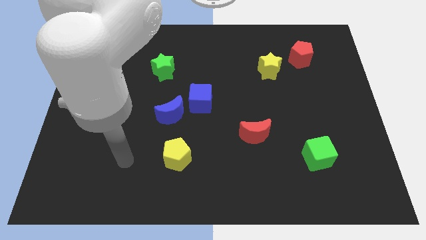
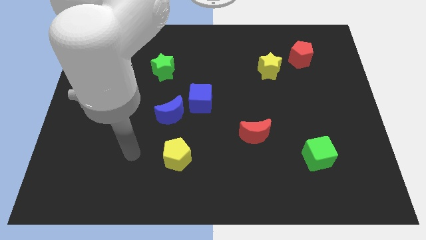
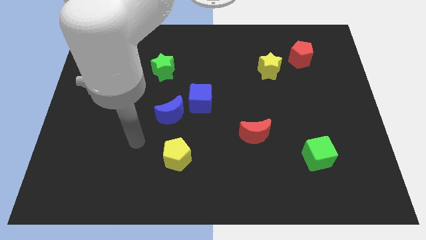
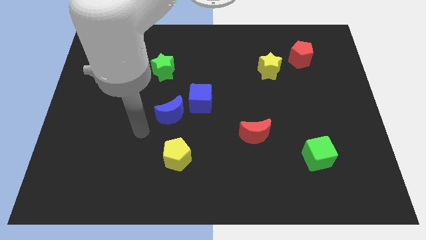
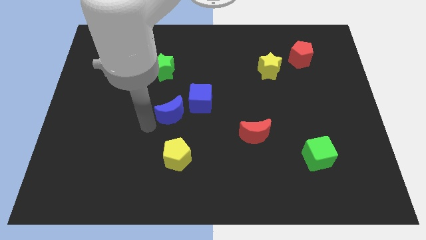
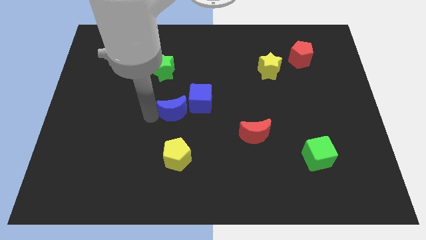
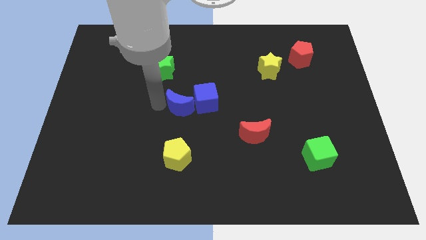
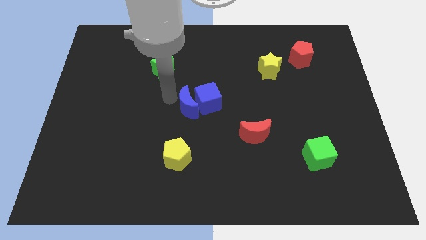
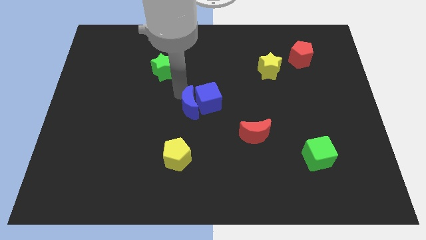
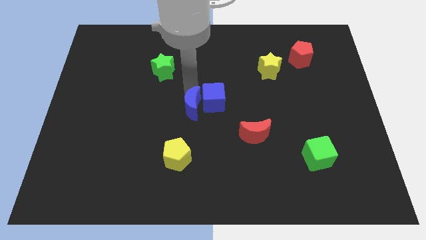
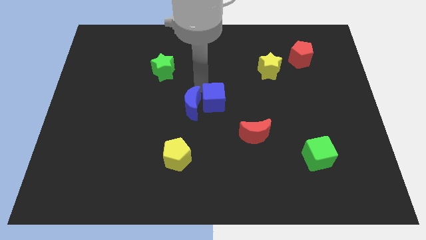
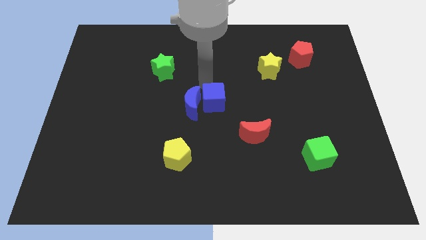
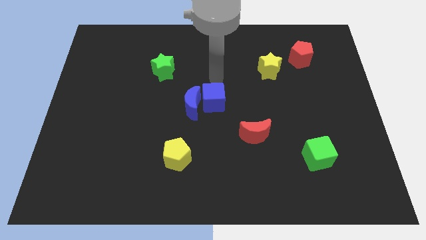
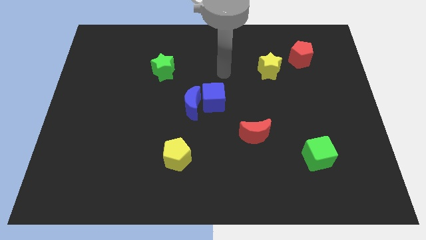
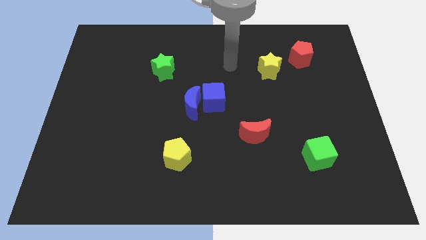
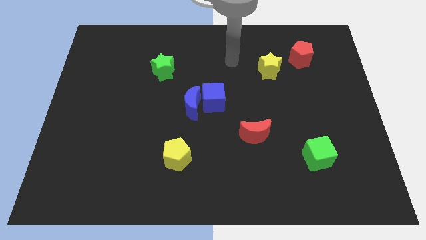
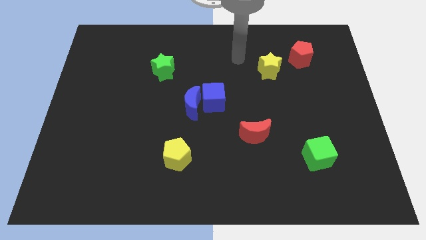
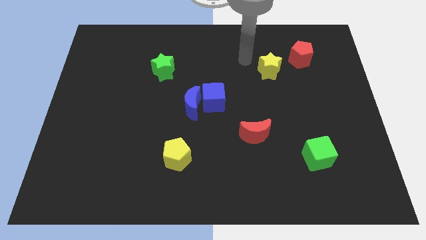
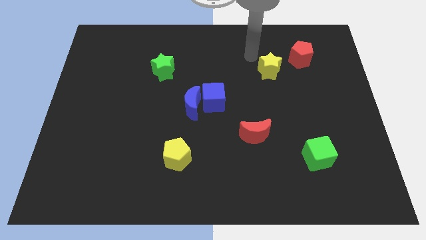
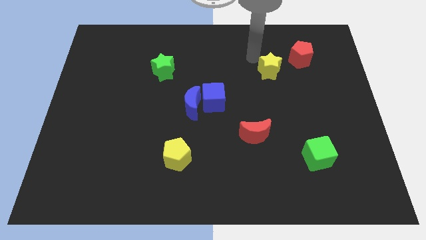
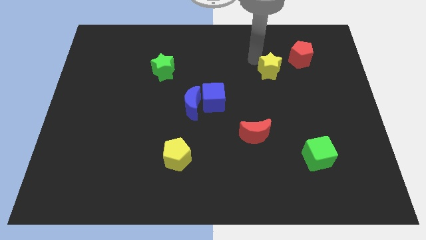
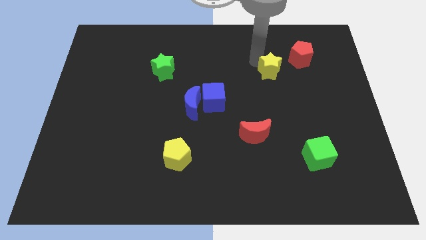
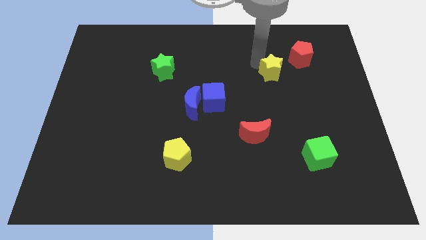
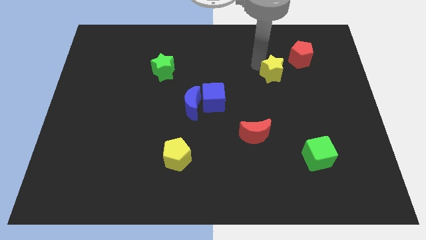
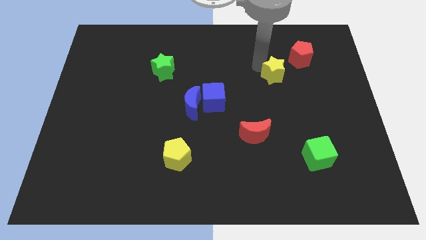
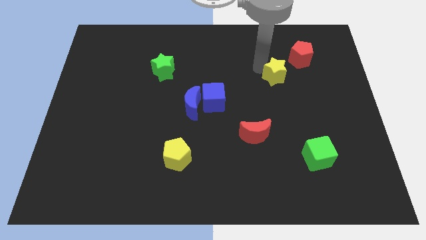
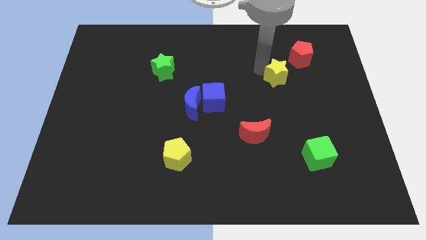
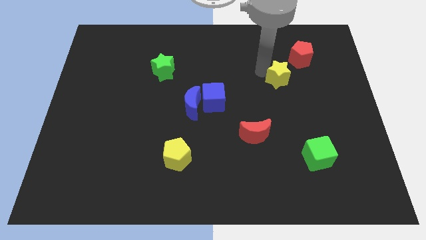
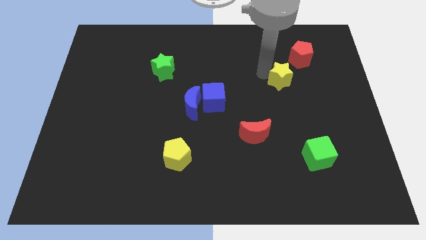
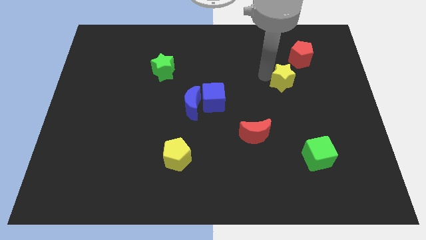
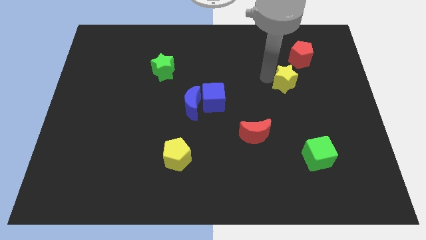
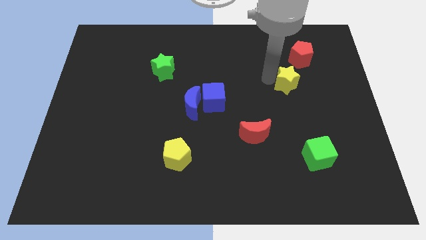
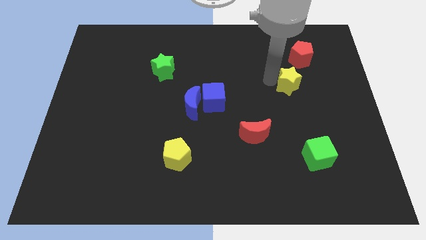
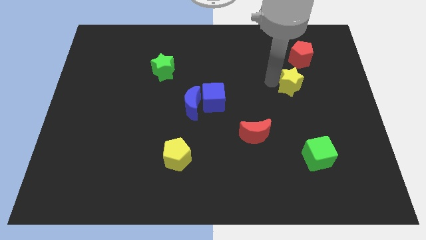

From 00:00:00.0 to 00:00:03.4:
slightly move the yellow star diagonally downwards and to the right

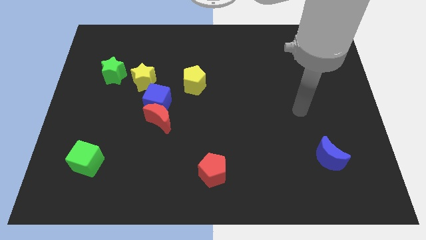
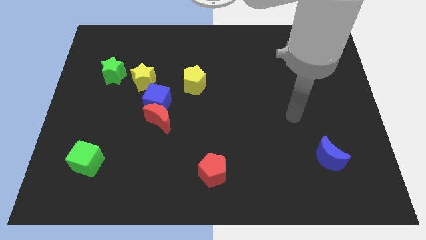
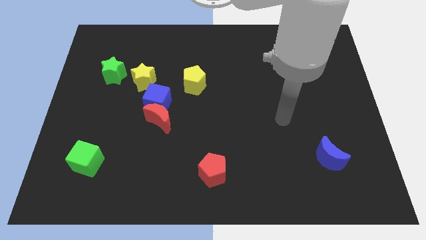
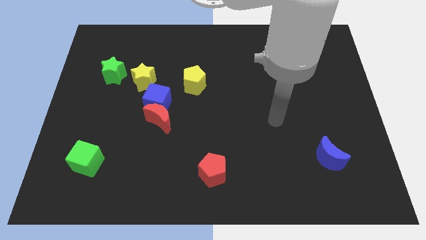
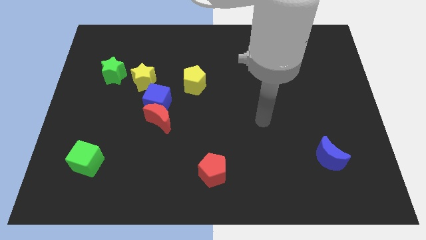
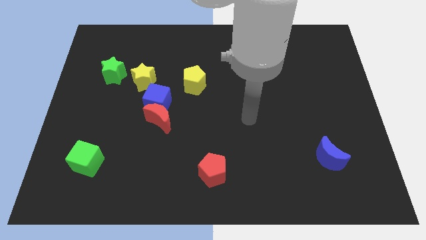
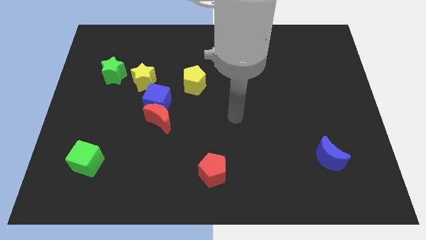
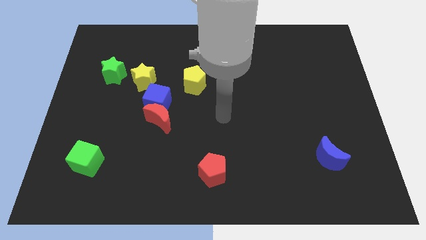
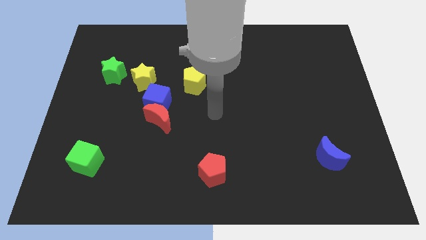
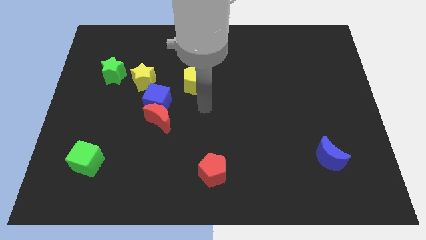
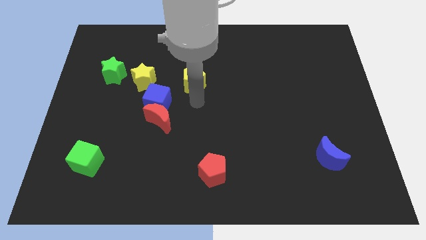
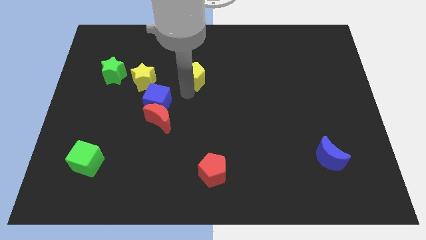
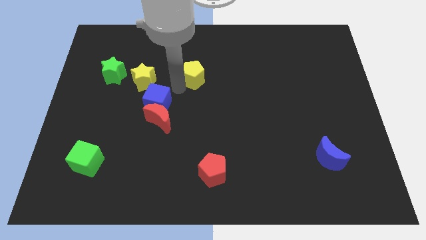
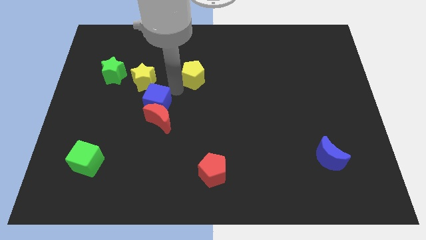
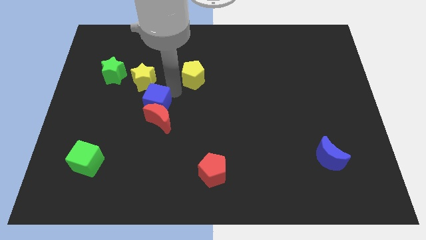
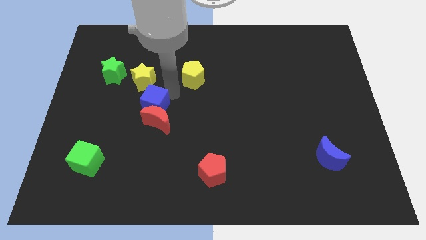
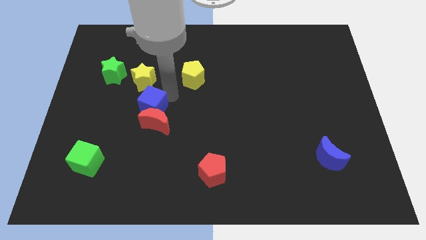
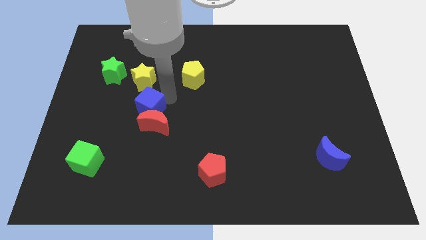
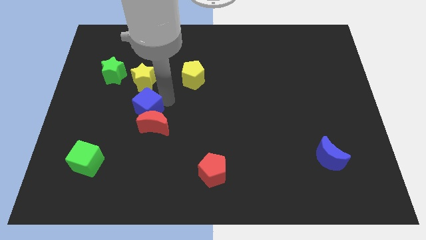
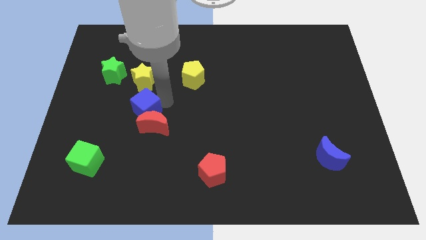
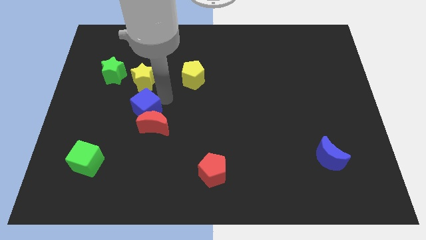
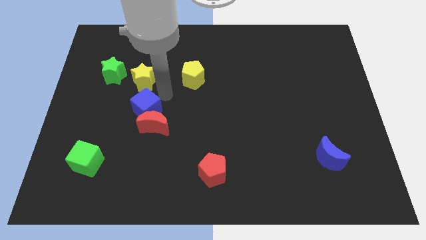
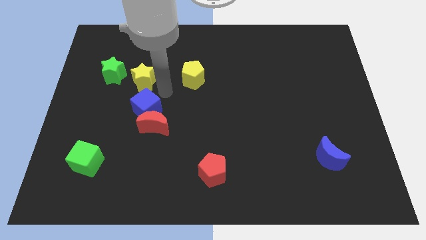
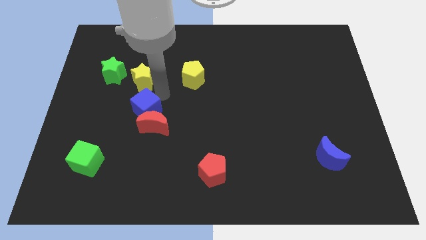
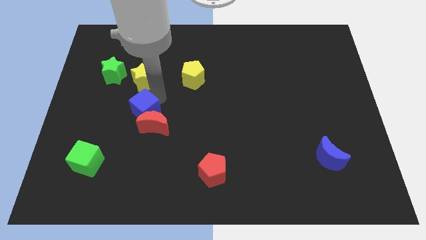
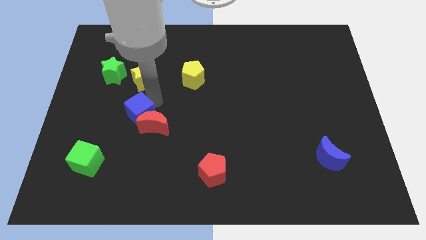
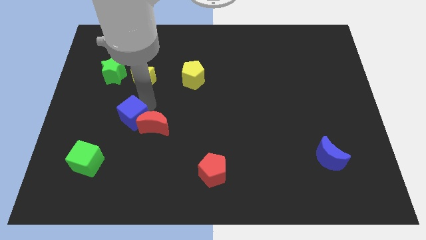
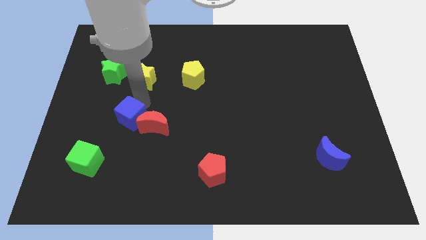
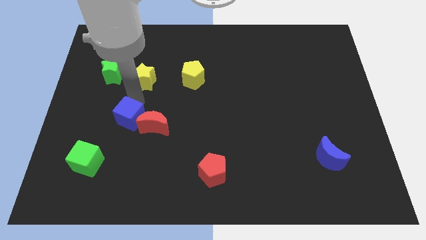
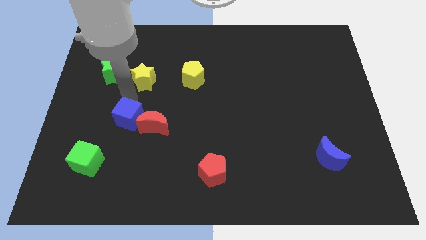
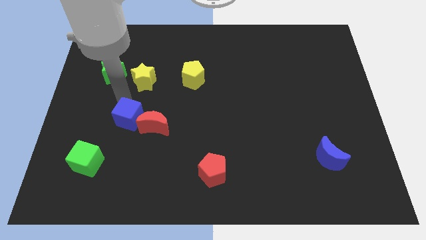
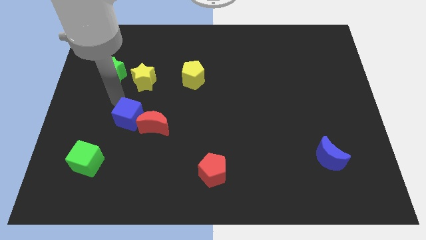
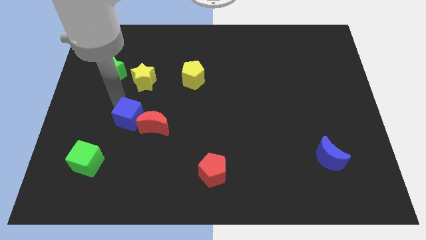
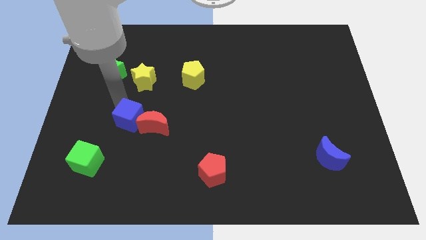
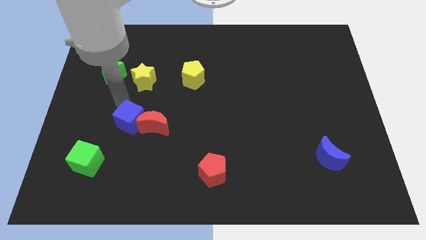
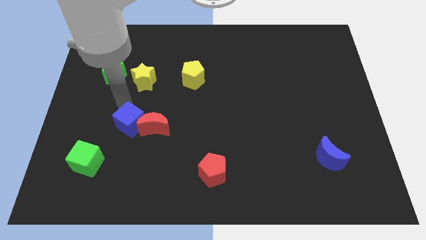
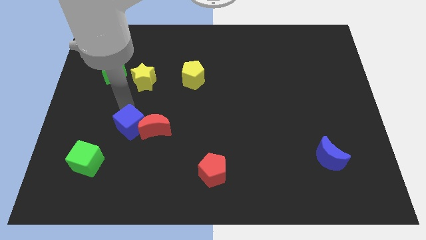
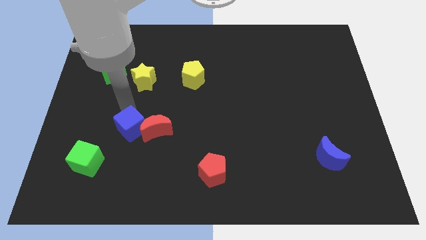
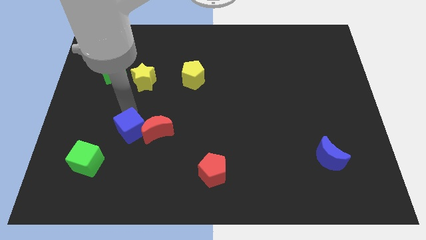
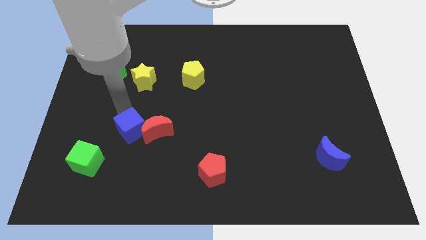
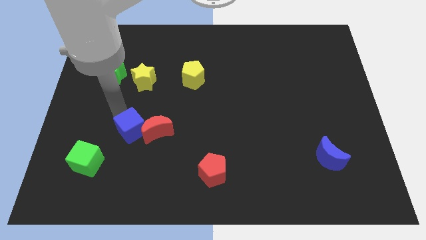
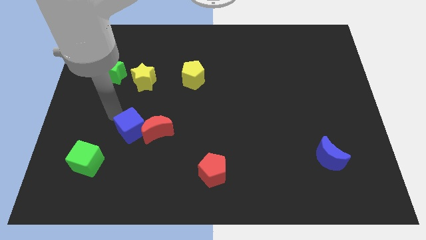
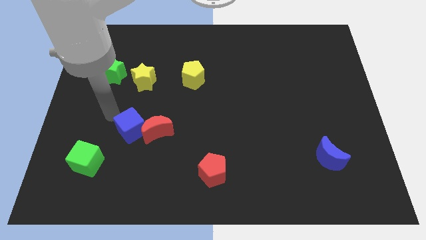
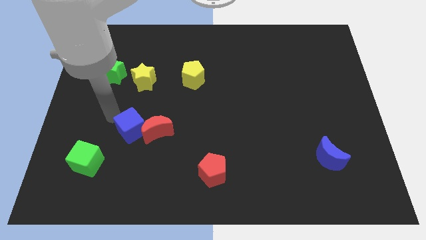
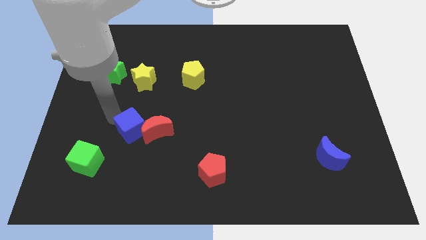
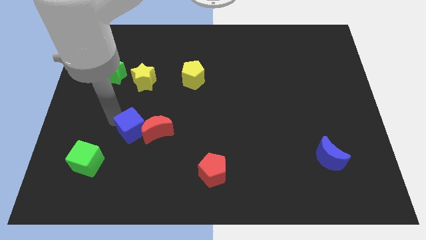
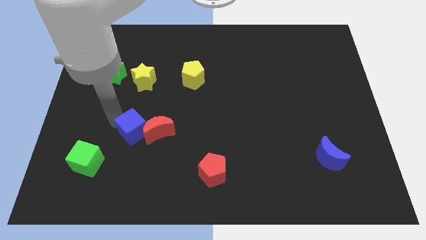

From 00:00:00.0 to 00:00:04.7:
slide the blue cube downwards a little

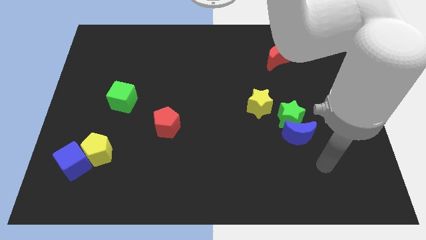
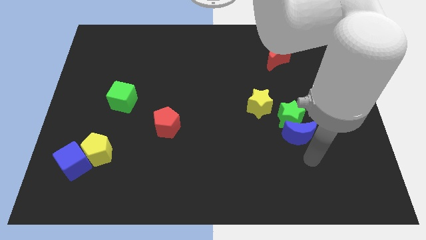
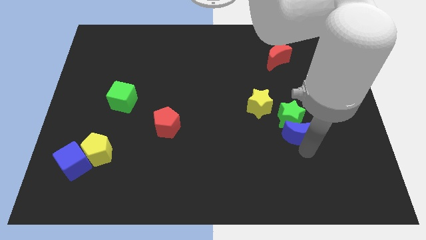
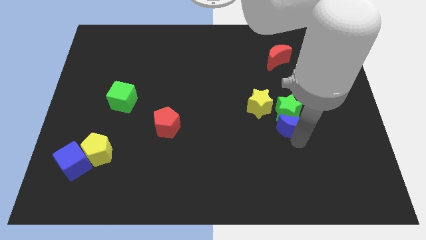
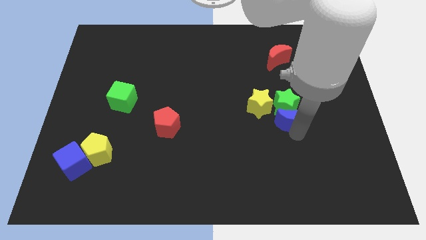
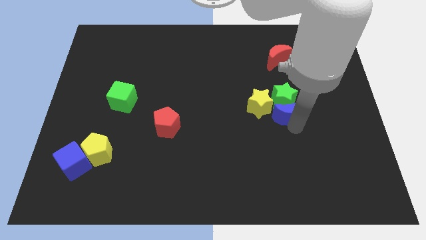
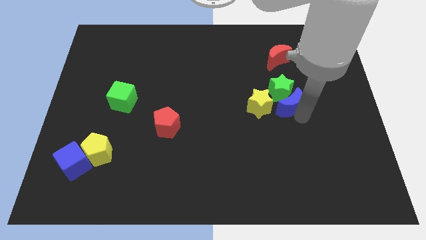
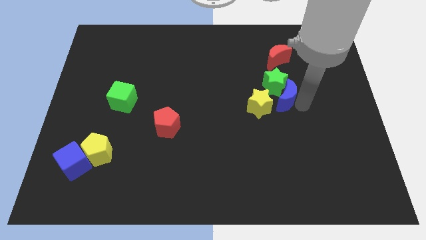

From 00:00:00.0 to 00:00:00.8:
move the green star upwards and then left slightly
